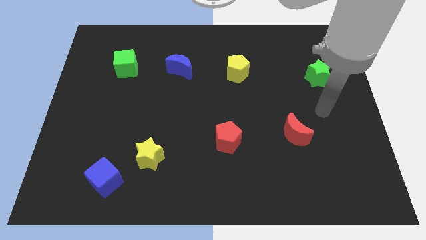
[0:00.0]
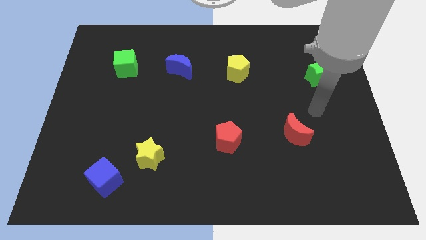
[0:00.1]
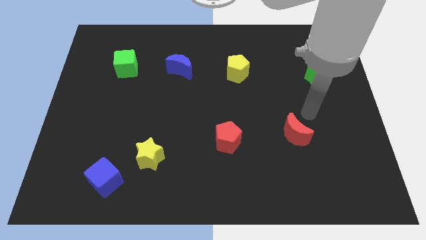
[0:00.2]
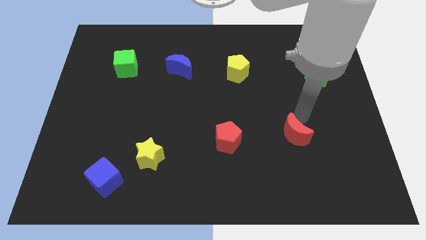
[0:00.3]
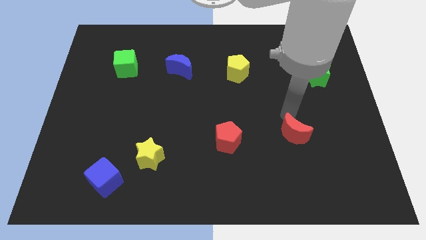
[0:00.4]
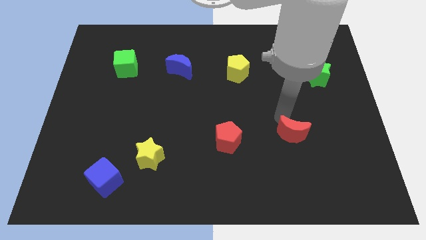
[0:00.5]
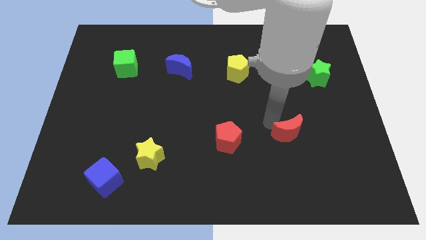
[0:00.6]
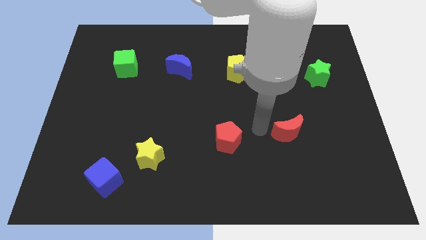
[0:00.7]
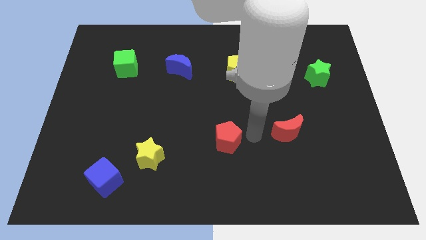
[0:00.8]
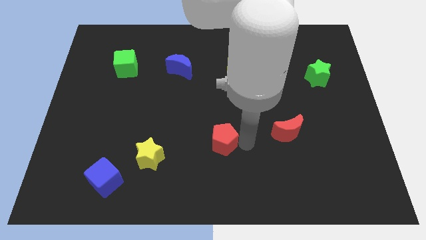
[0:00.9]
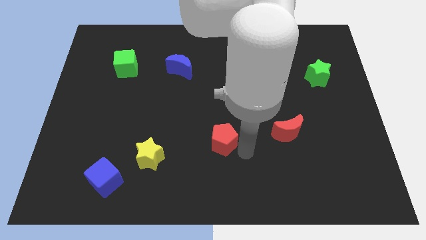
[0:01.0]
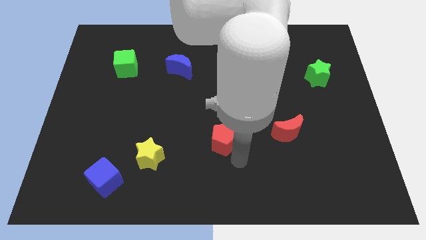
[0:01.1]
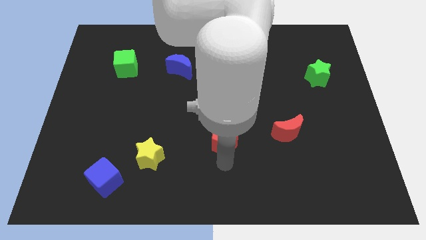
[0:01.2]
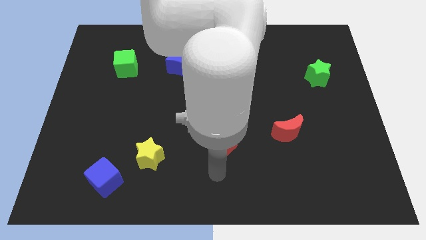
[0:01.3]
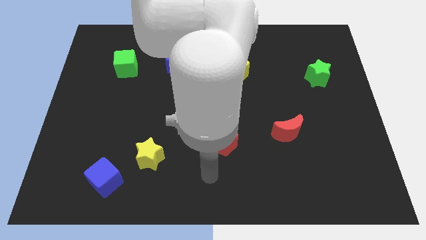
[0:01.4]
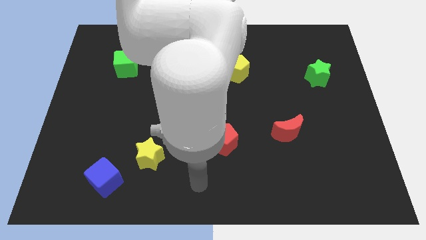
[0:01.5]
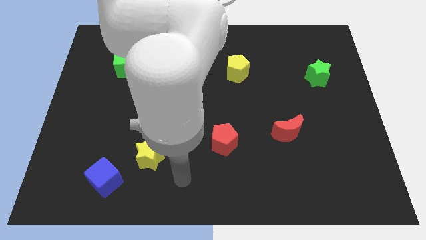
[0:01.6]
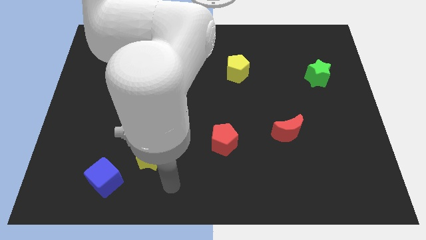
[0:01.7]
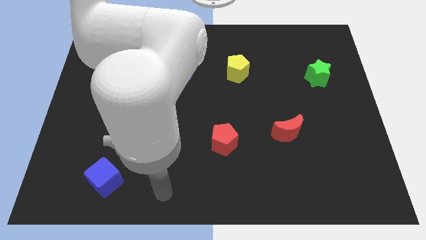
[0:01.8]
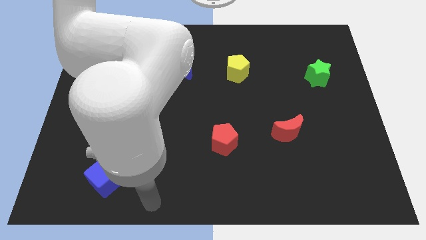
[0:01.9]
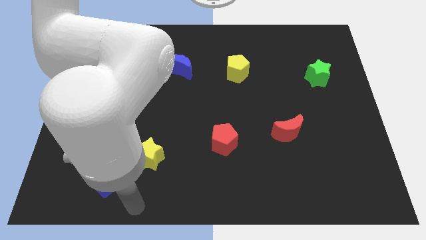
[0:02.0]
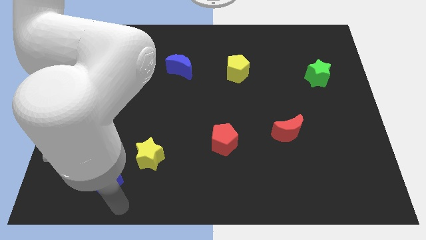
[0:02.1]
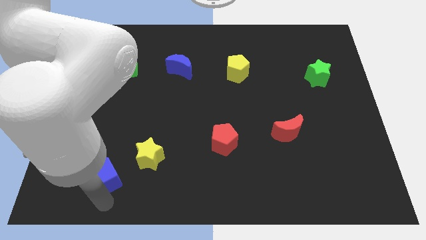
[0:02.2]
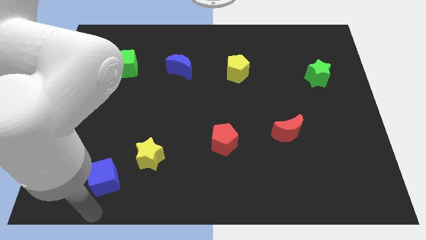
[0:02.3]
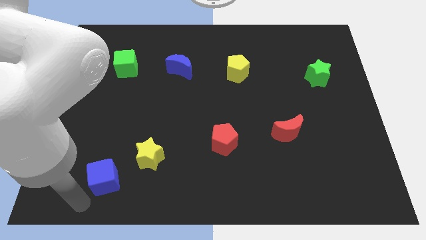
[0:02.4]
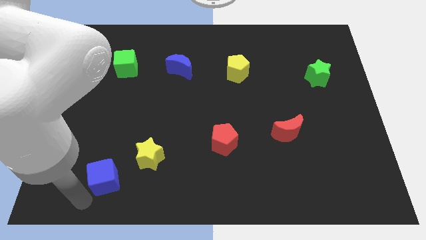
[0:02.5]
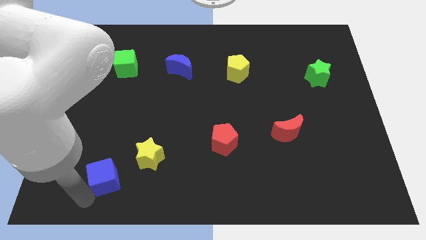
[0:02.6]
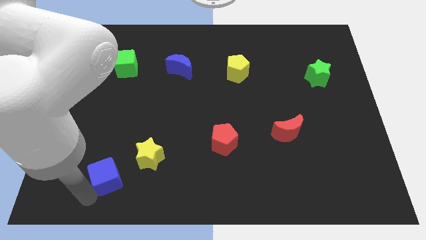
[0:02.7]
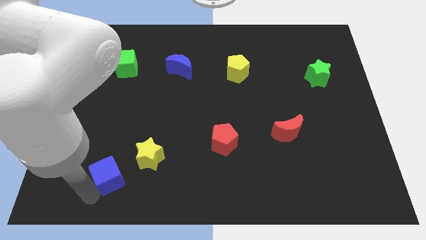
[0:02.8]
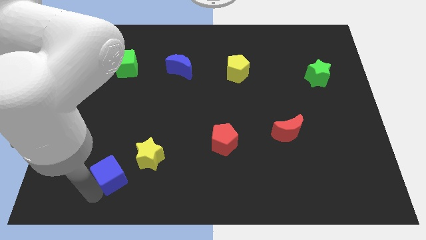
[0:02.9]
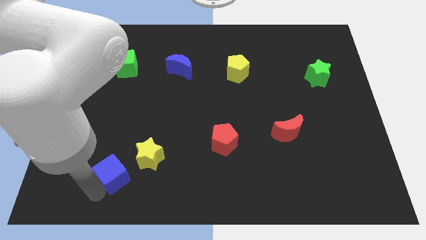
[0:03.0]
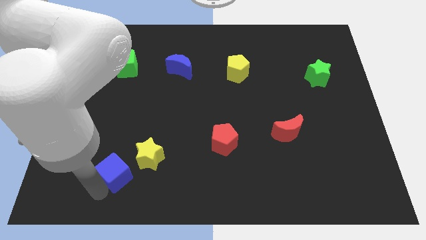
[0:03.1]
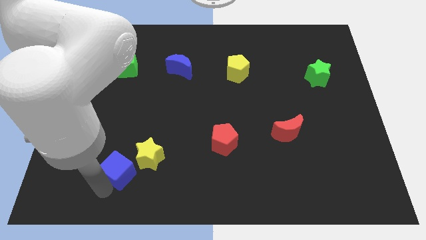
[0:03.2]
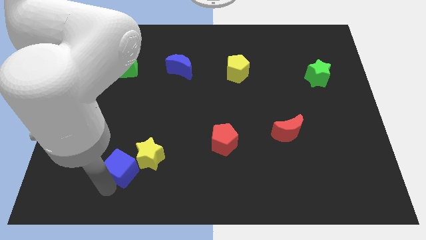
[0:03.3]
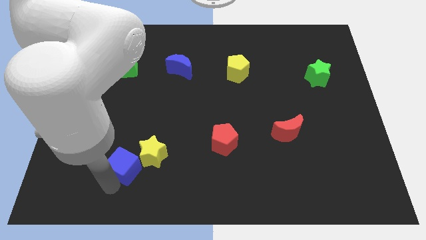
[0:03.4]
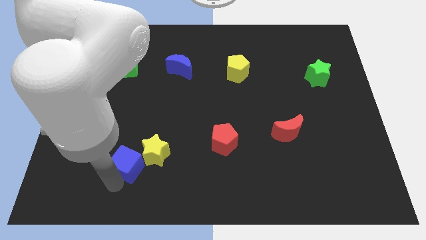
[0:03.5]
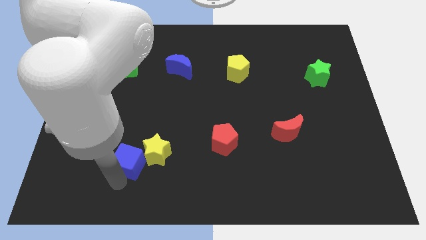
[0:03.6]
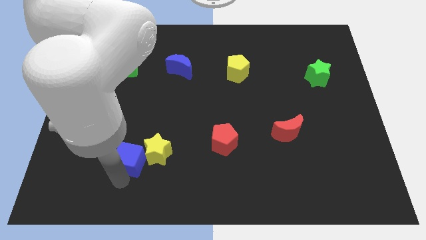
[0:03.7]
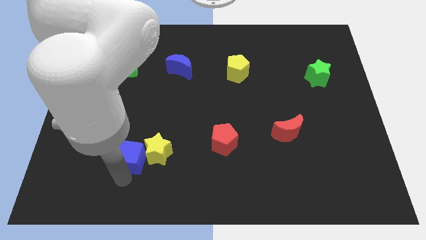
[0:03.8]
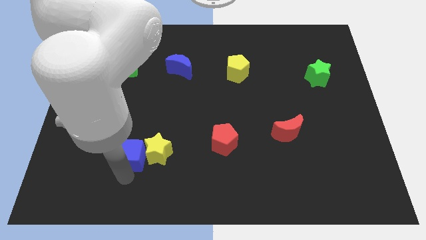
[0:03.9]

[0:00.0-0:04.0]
push the blue cube upwards and to the right a bit

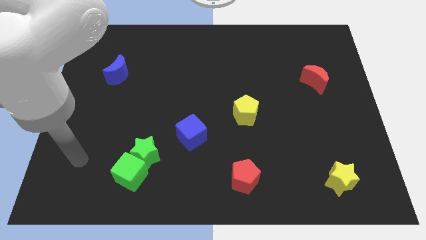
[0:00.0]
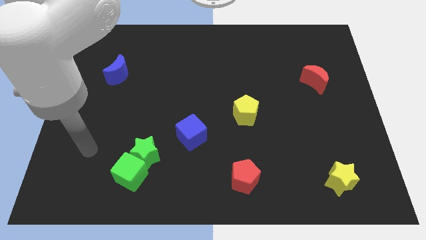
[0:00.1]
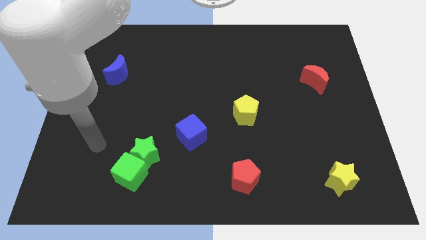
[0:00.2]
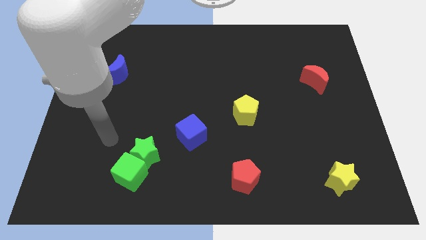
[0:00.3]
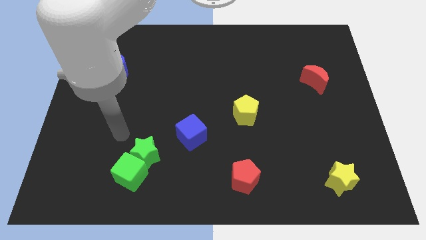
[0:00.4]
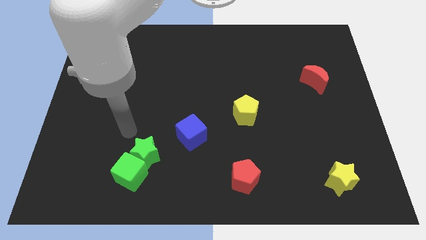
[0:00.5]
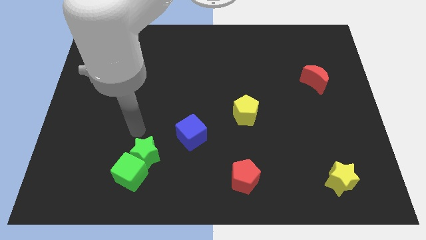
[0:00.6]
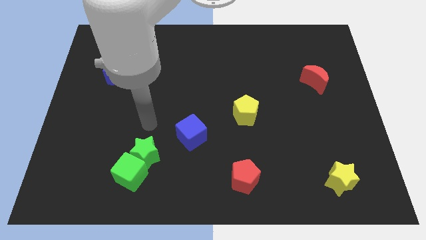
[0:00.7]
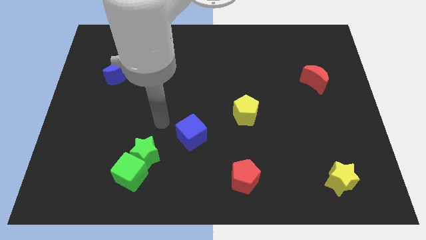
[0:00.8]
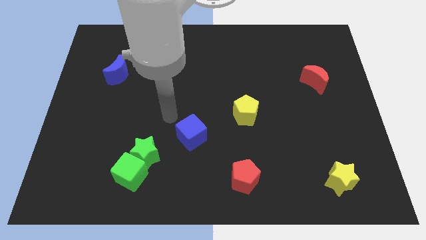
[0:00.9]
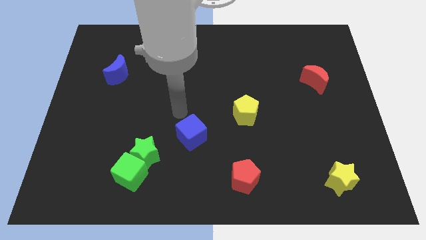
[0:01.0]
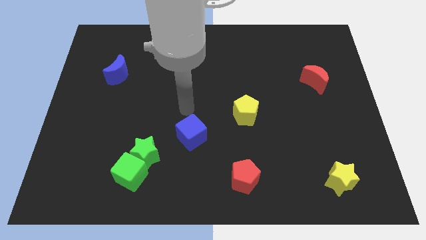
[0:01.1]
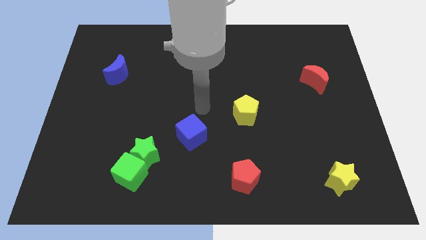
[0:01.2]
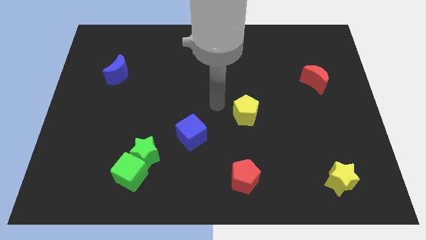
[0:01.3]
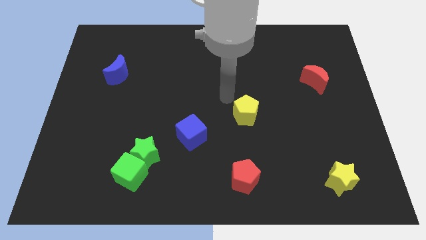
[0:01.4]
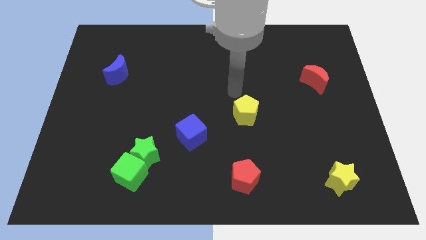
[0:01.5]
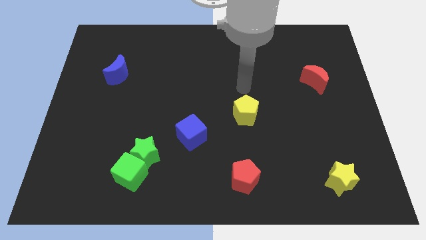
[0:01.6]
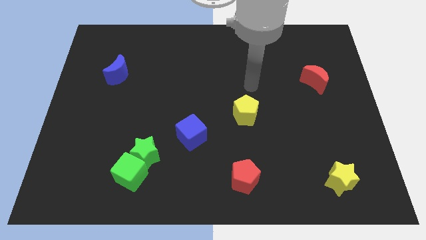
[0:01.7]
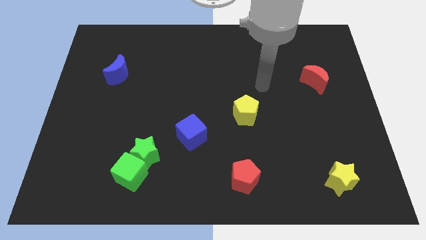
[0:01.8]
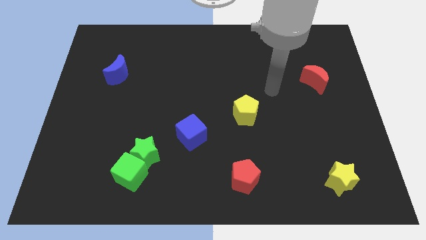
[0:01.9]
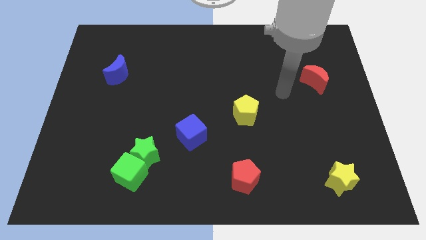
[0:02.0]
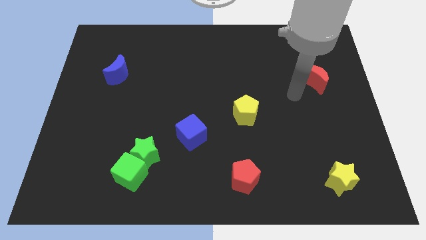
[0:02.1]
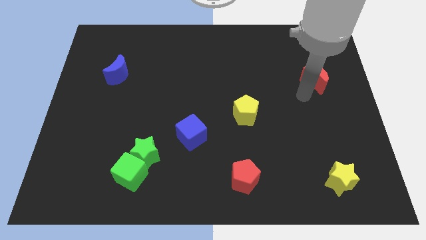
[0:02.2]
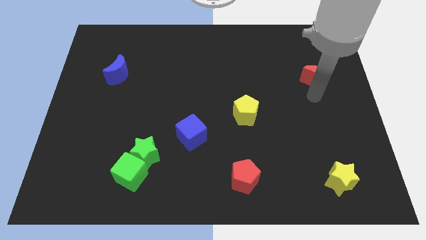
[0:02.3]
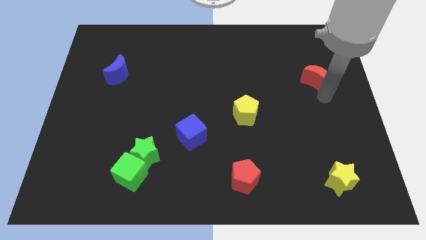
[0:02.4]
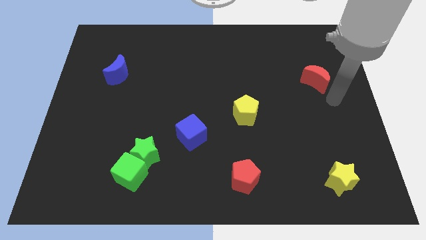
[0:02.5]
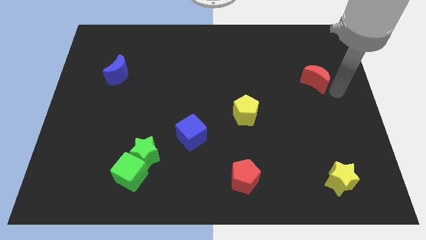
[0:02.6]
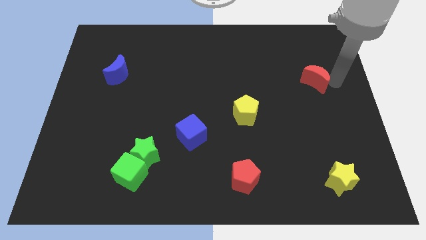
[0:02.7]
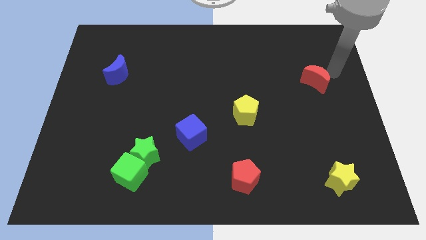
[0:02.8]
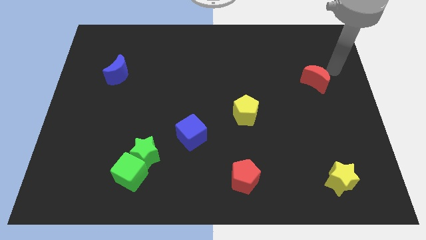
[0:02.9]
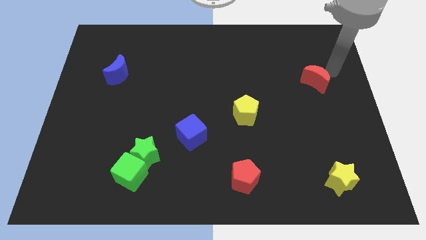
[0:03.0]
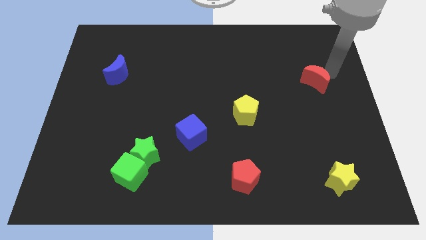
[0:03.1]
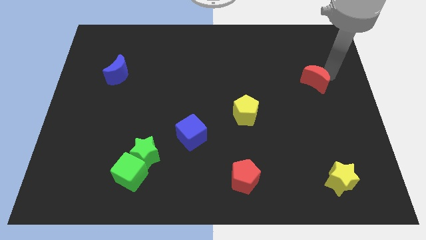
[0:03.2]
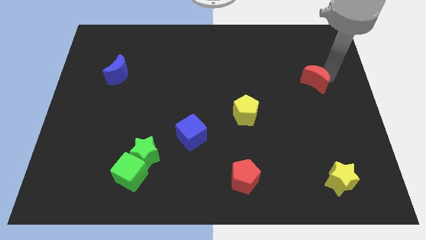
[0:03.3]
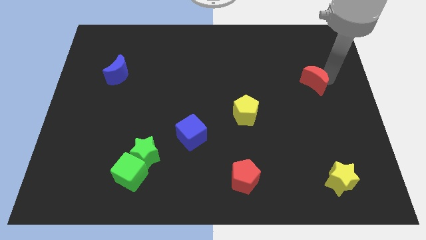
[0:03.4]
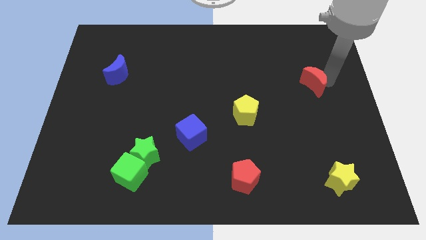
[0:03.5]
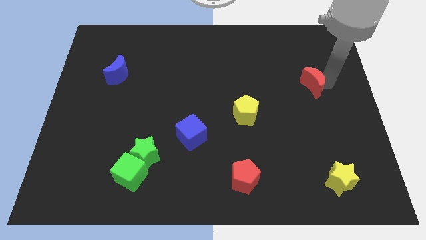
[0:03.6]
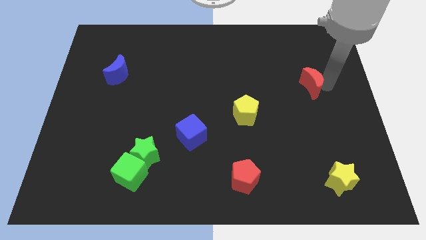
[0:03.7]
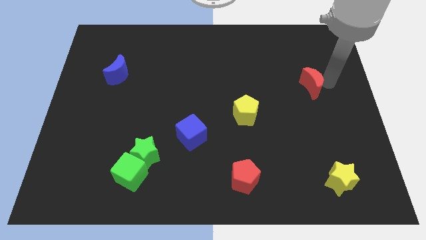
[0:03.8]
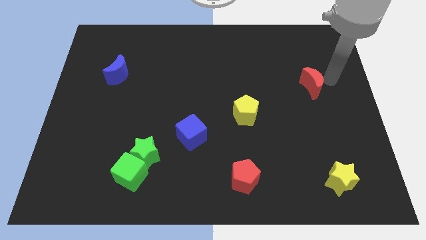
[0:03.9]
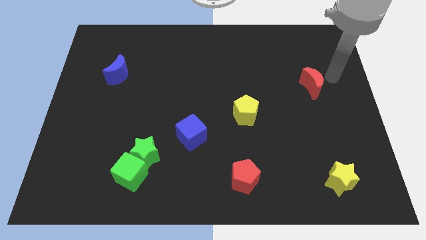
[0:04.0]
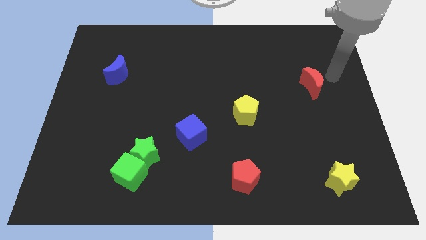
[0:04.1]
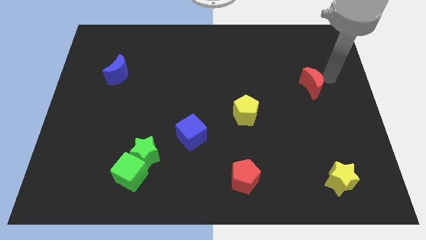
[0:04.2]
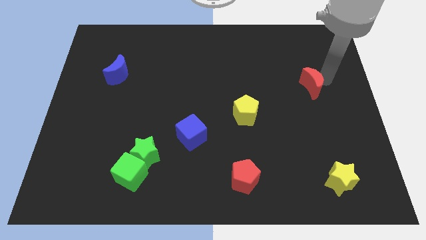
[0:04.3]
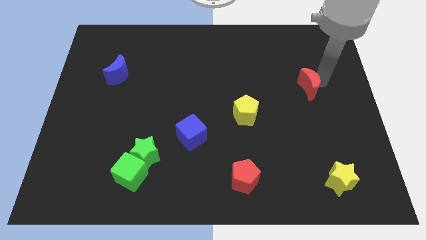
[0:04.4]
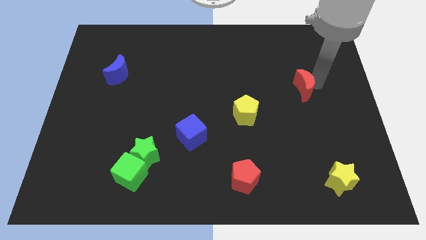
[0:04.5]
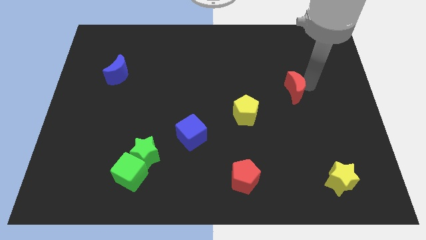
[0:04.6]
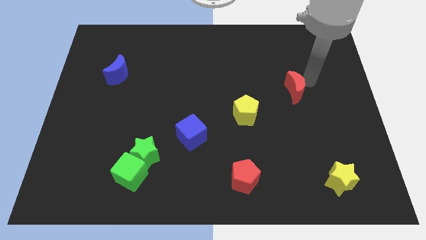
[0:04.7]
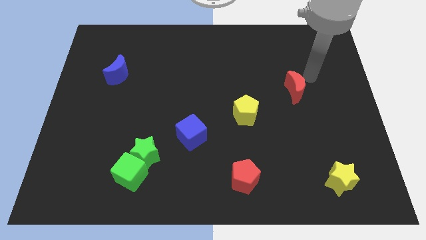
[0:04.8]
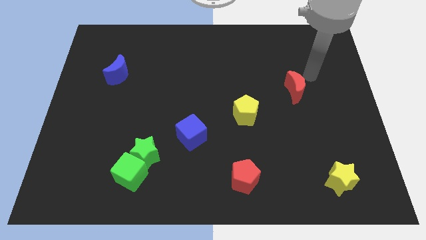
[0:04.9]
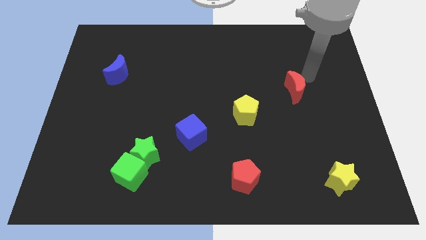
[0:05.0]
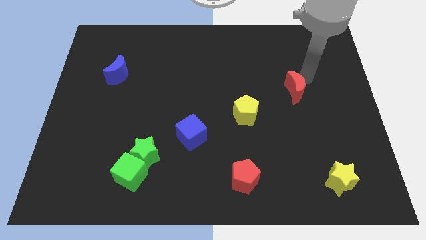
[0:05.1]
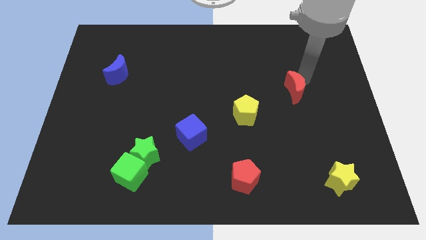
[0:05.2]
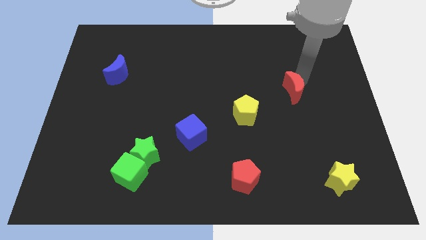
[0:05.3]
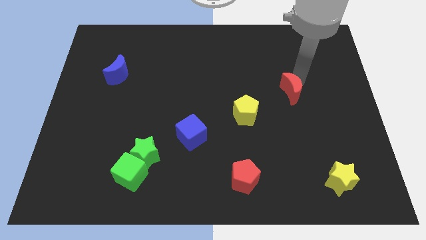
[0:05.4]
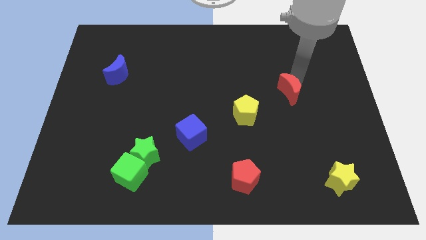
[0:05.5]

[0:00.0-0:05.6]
push the red moon a little downwards and left
